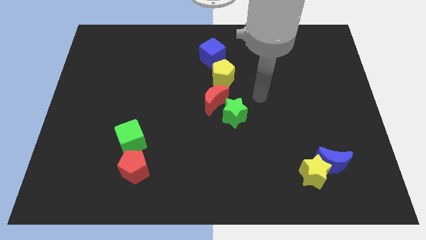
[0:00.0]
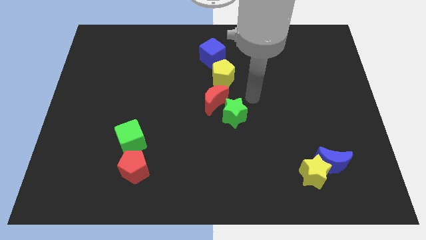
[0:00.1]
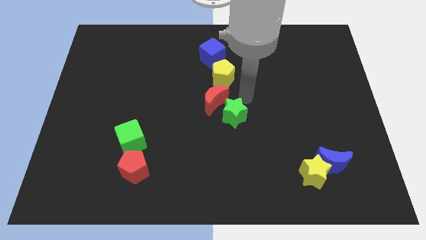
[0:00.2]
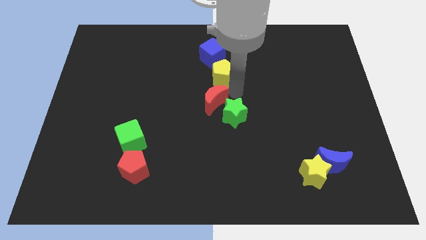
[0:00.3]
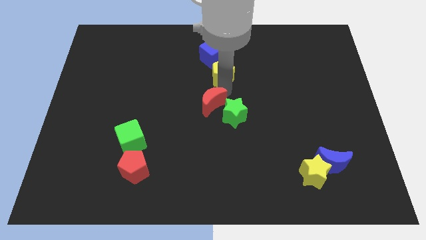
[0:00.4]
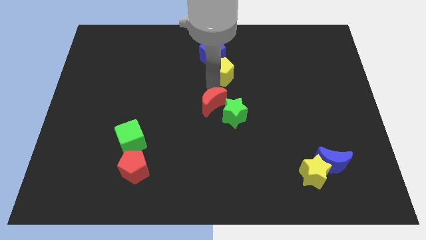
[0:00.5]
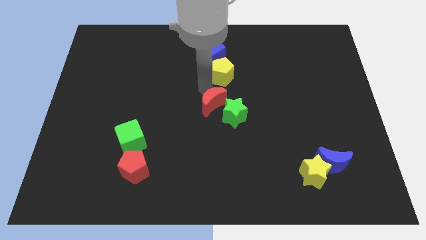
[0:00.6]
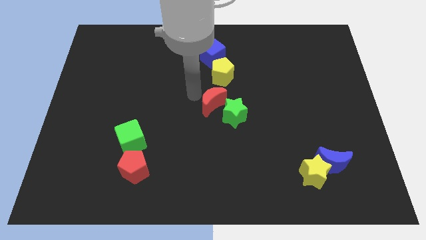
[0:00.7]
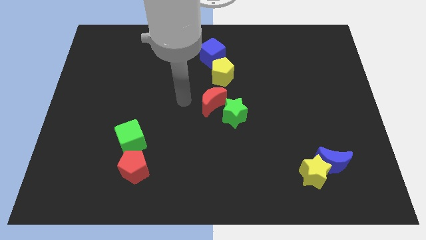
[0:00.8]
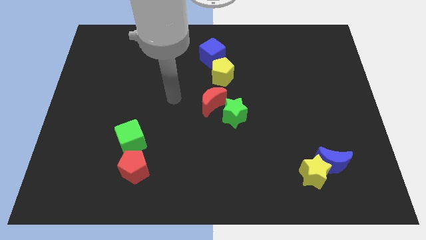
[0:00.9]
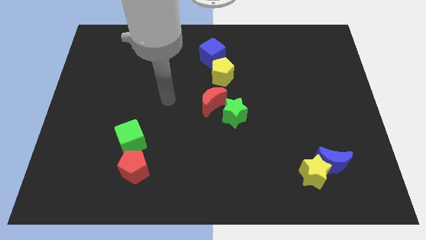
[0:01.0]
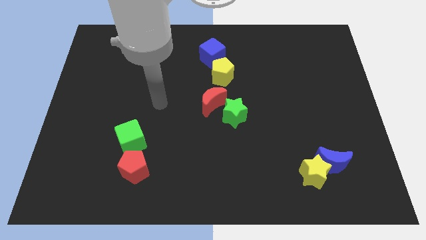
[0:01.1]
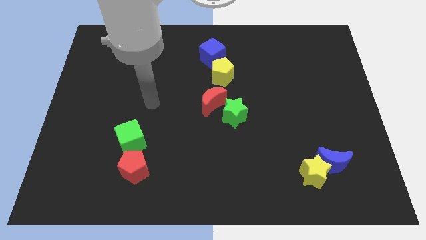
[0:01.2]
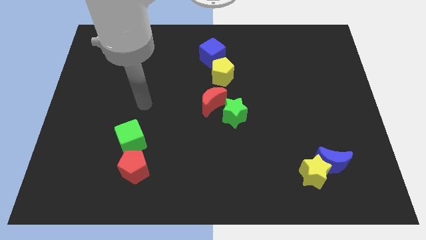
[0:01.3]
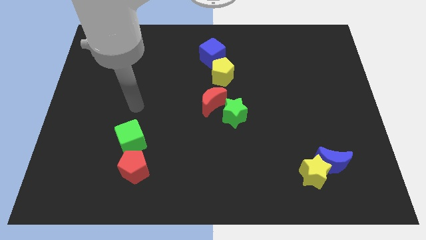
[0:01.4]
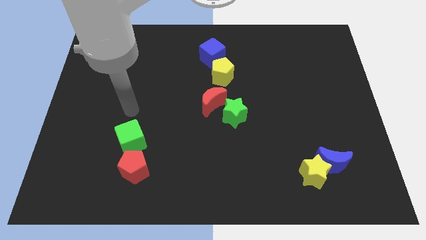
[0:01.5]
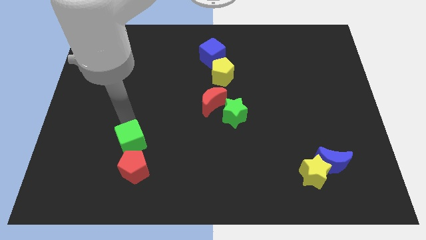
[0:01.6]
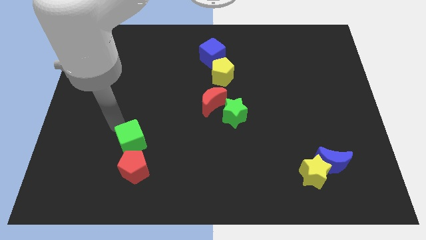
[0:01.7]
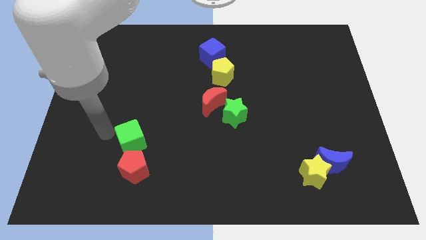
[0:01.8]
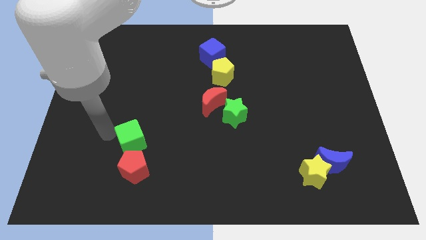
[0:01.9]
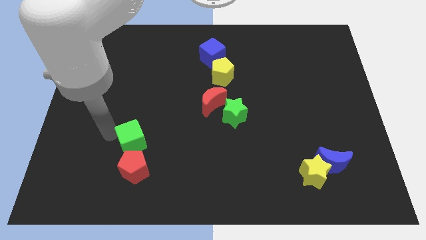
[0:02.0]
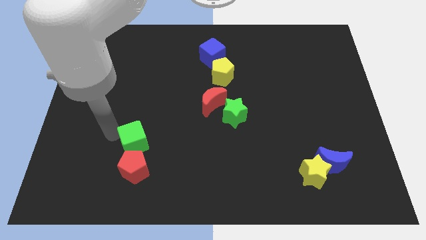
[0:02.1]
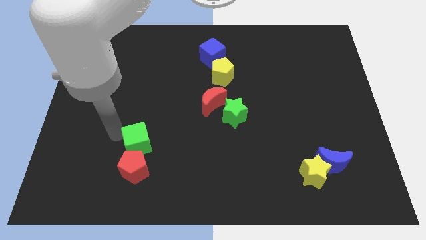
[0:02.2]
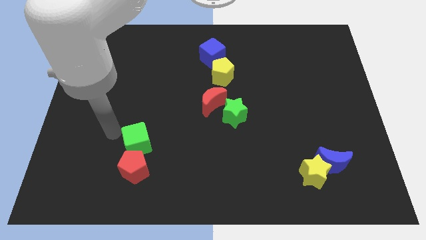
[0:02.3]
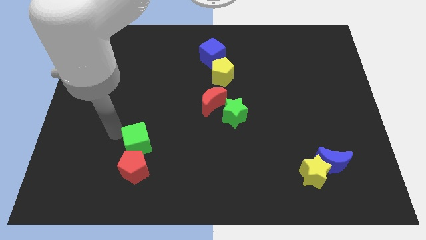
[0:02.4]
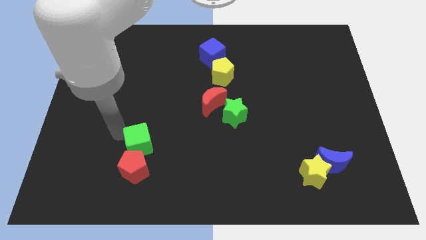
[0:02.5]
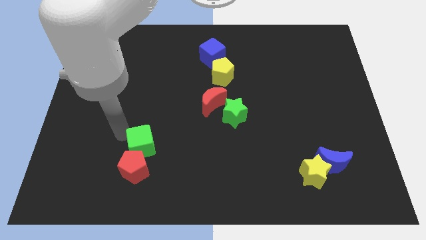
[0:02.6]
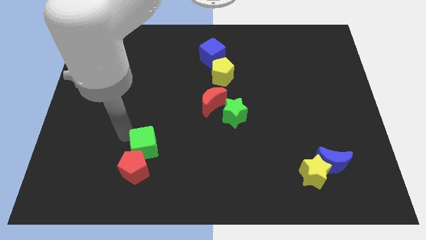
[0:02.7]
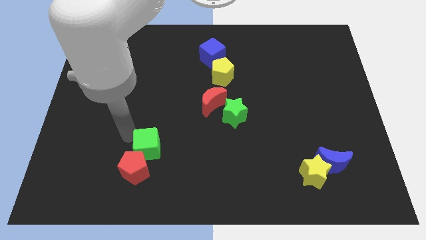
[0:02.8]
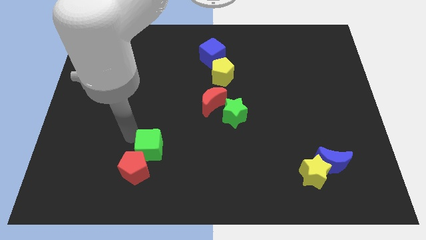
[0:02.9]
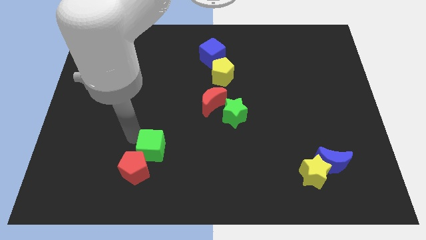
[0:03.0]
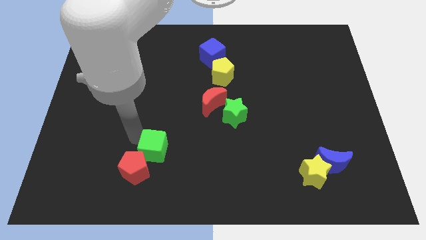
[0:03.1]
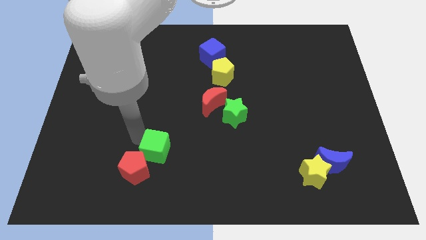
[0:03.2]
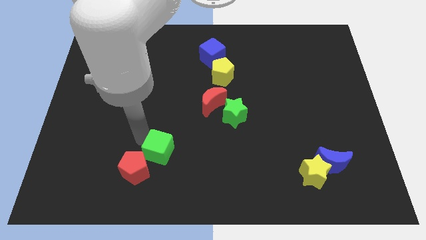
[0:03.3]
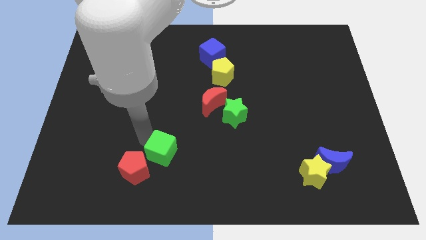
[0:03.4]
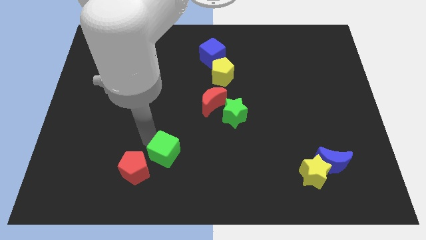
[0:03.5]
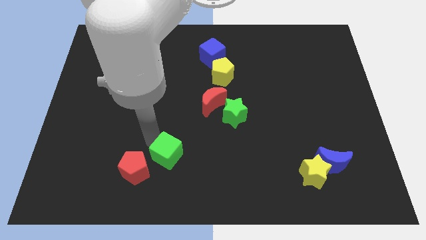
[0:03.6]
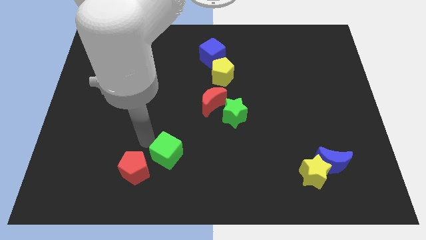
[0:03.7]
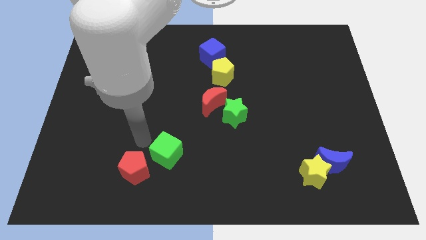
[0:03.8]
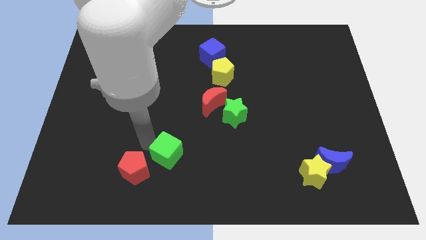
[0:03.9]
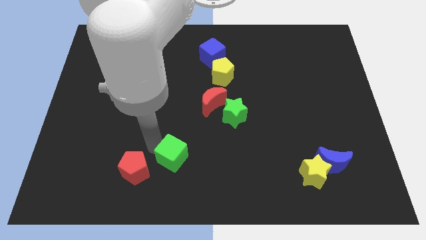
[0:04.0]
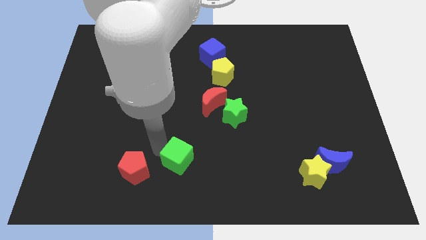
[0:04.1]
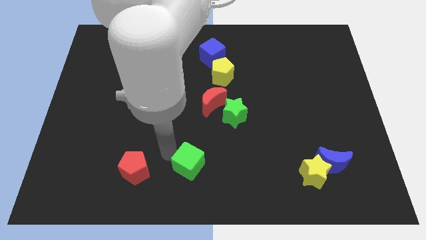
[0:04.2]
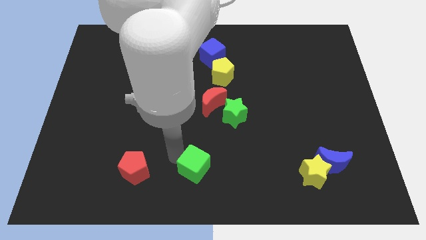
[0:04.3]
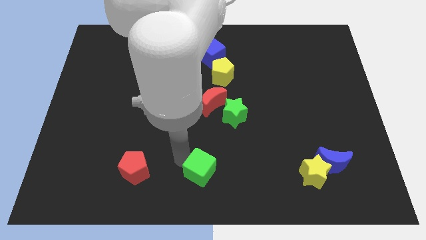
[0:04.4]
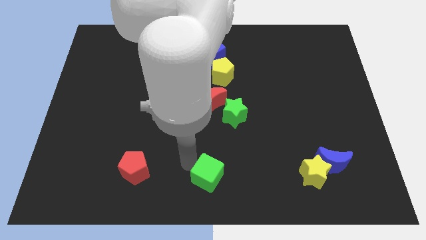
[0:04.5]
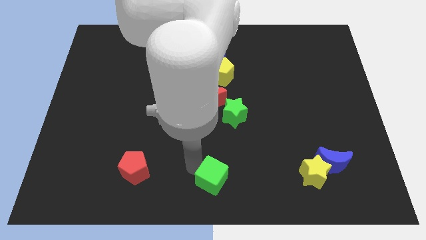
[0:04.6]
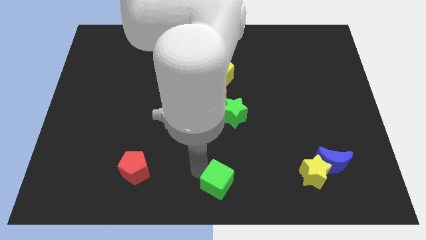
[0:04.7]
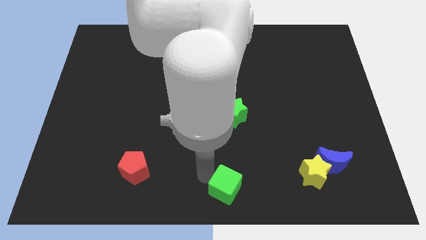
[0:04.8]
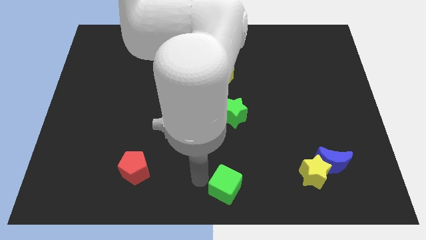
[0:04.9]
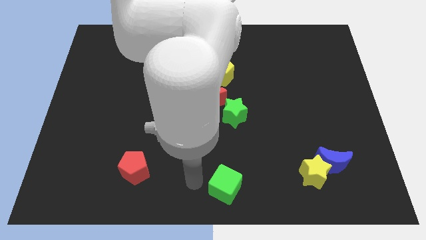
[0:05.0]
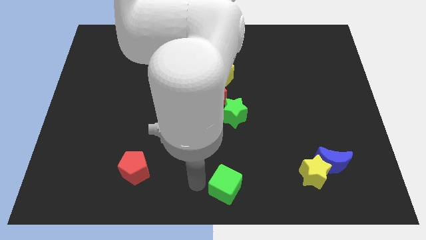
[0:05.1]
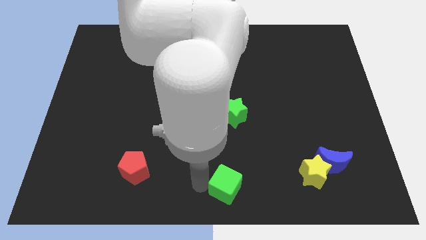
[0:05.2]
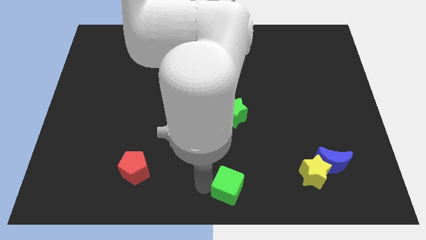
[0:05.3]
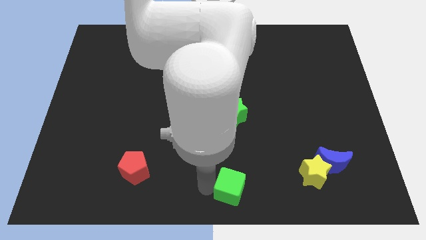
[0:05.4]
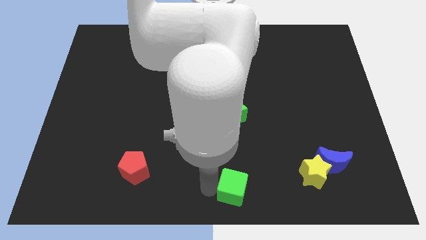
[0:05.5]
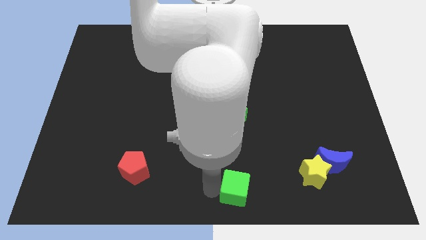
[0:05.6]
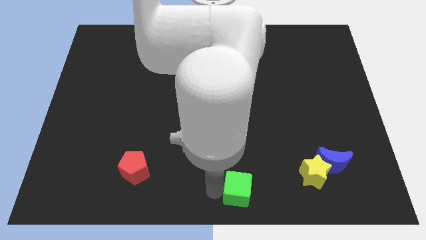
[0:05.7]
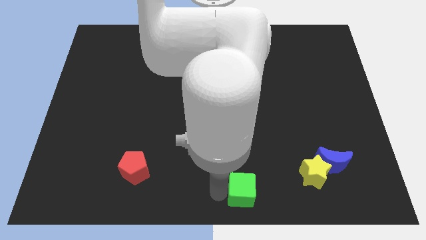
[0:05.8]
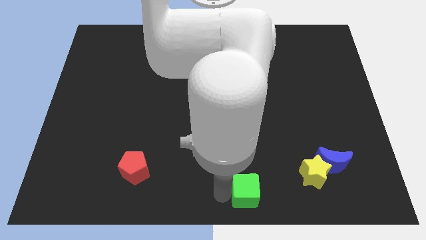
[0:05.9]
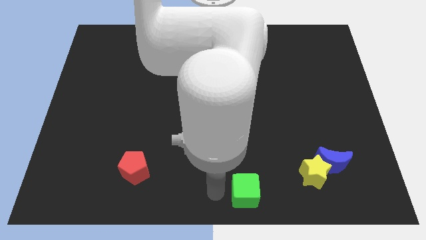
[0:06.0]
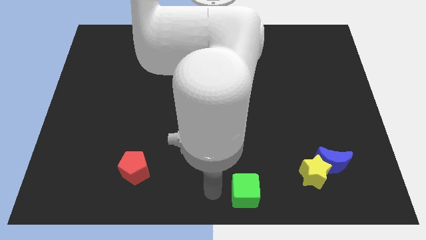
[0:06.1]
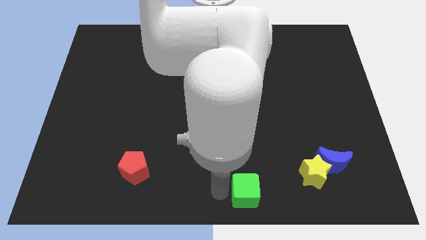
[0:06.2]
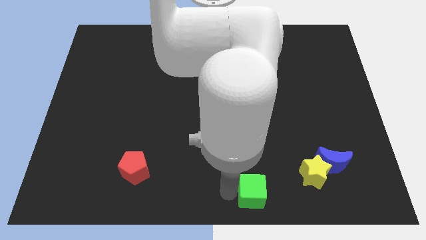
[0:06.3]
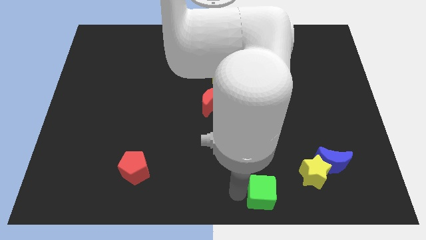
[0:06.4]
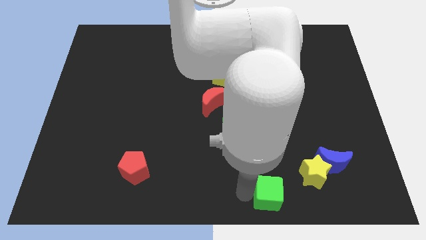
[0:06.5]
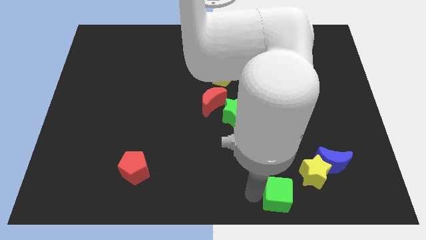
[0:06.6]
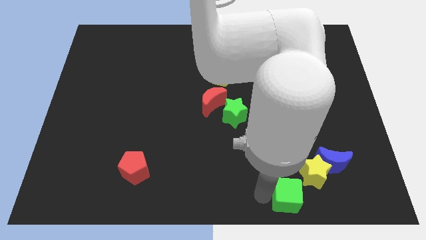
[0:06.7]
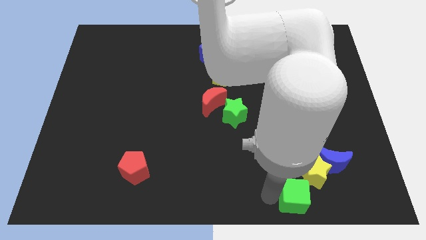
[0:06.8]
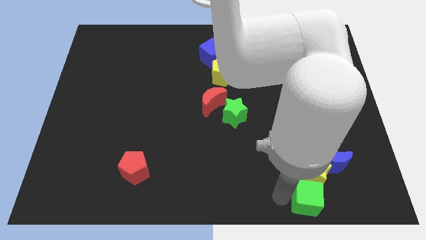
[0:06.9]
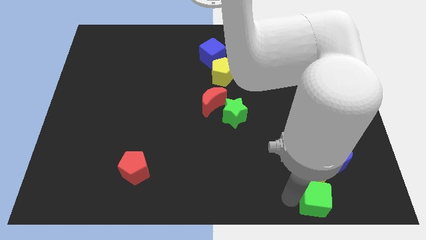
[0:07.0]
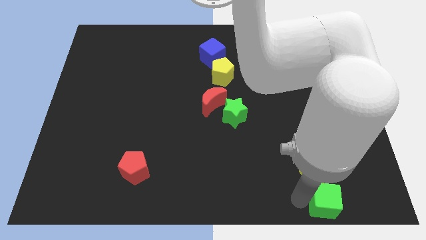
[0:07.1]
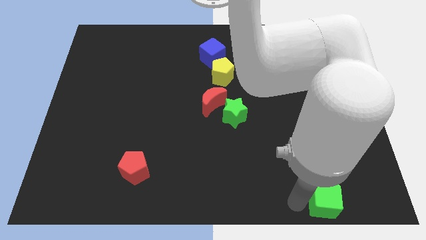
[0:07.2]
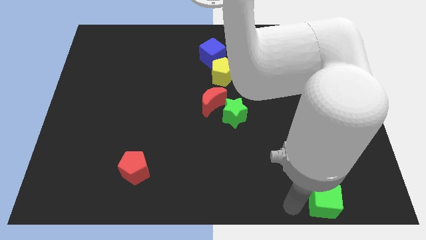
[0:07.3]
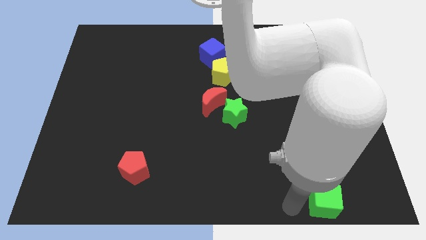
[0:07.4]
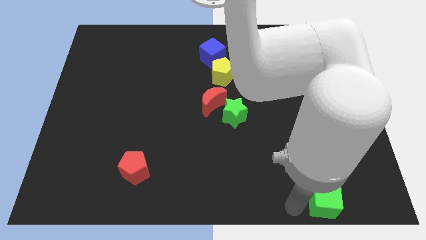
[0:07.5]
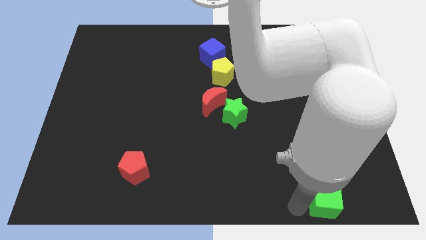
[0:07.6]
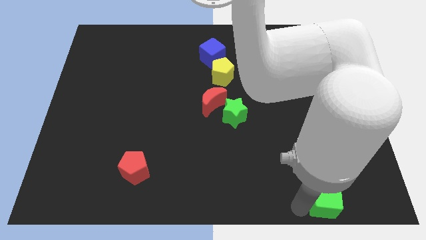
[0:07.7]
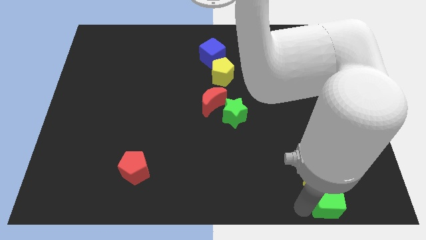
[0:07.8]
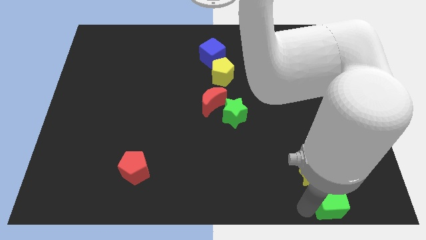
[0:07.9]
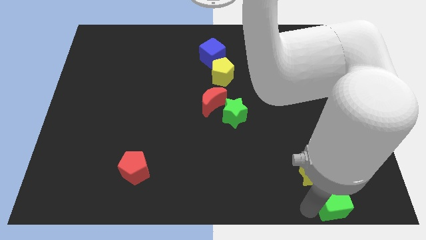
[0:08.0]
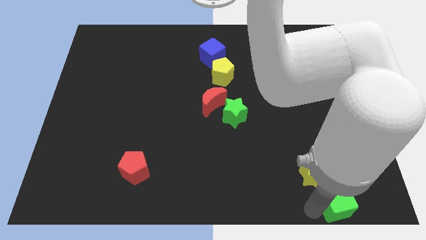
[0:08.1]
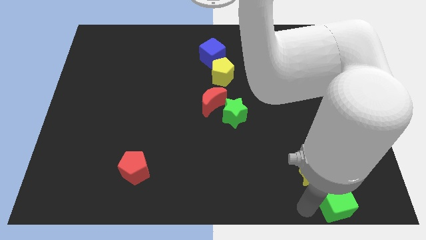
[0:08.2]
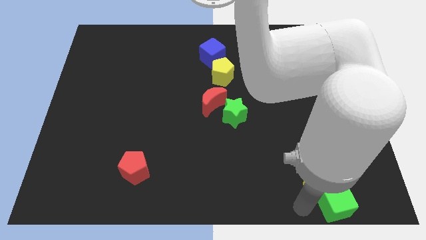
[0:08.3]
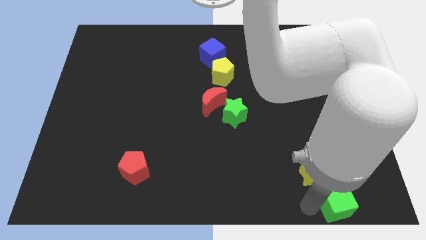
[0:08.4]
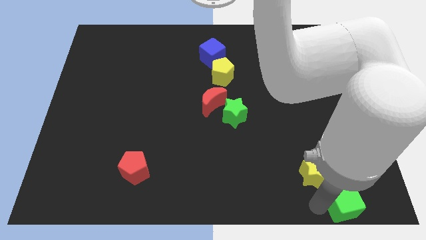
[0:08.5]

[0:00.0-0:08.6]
push the green cube to the bottom right of the board
